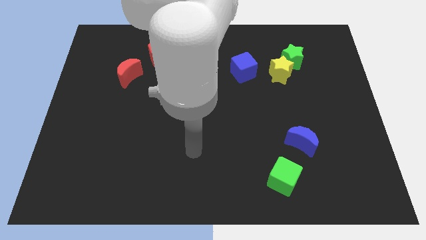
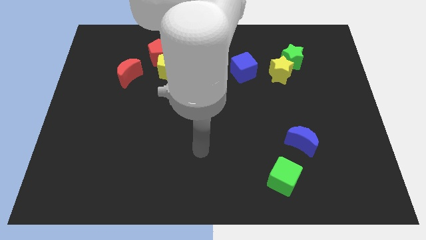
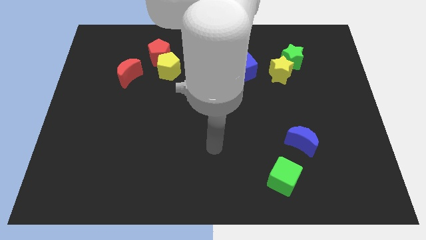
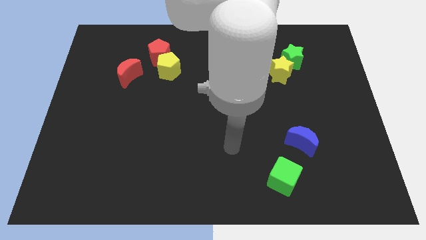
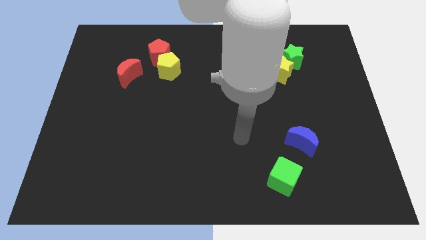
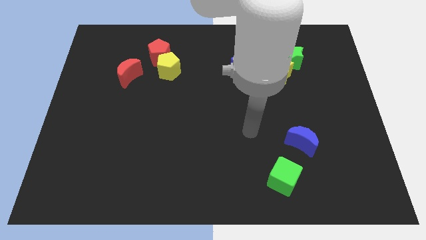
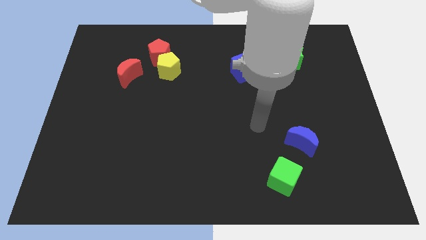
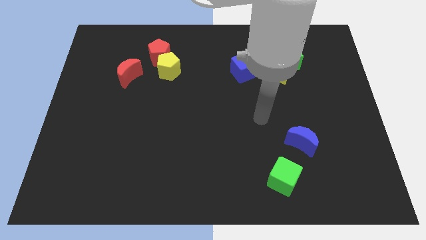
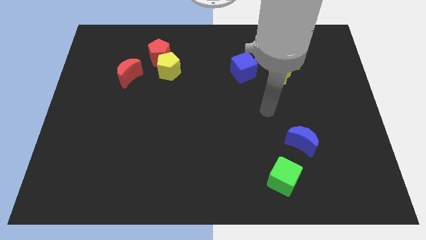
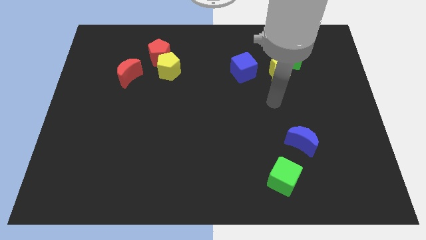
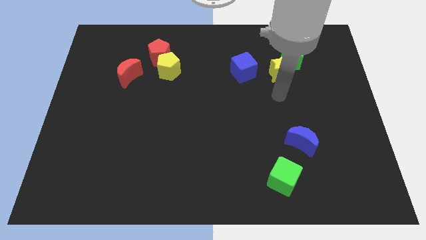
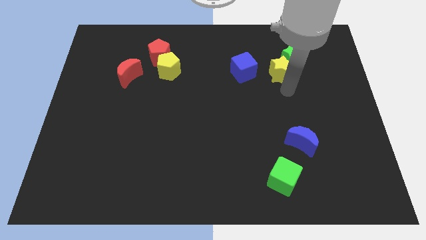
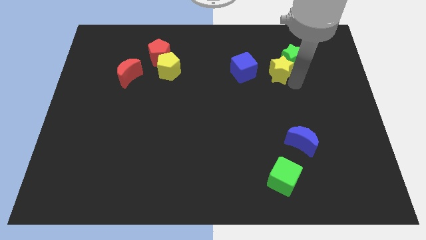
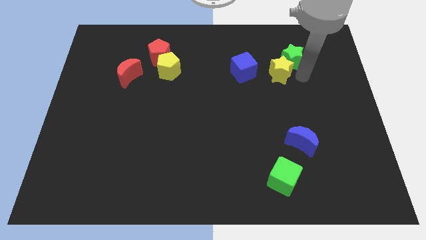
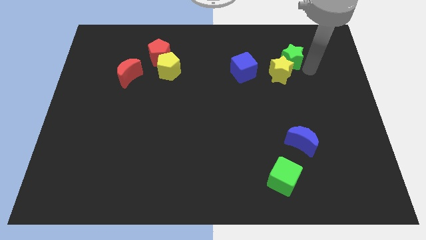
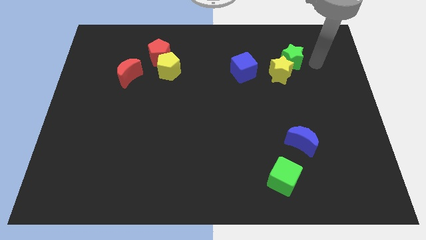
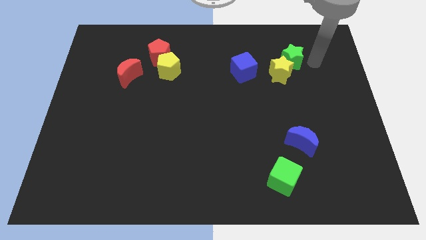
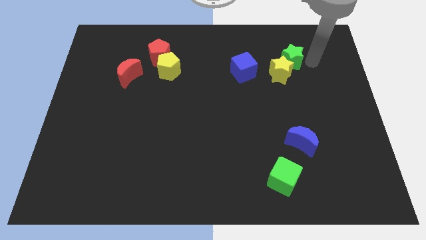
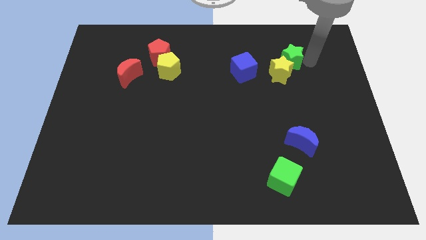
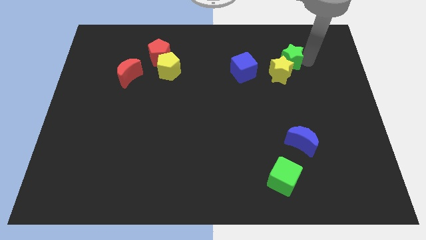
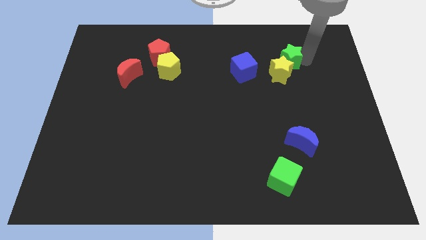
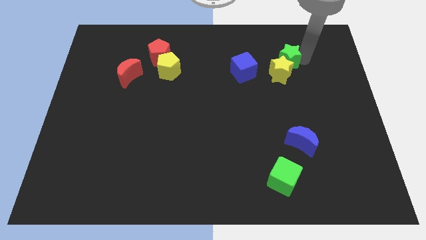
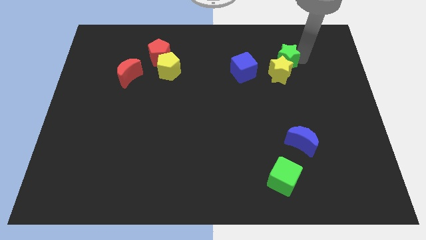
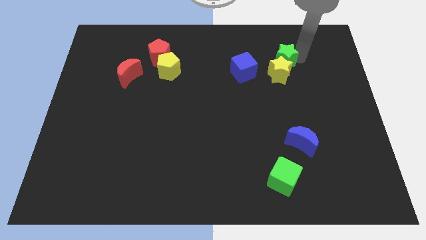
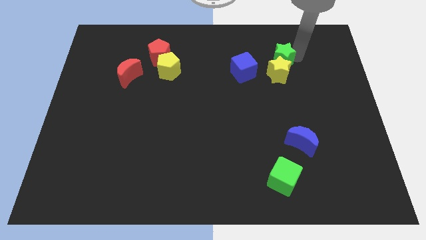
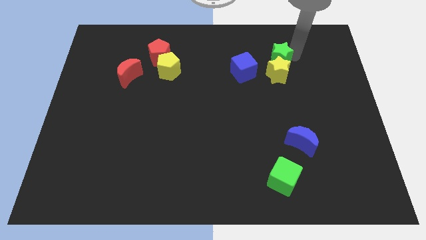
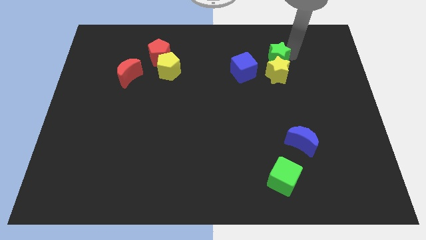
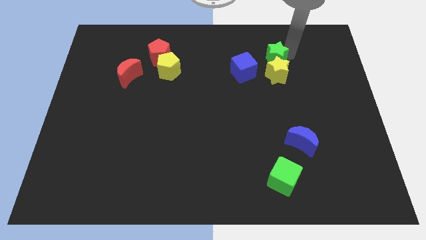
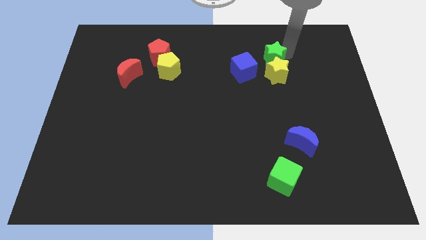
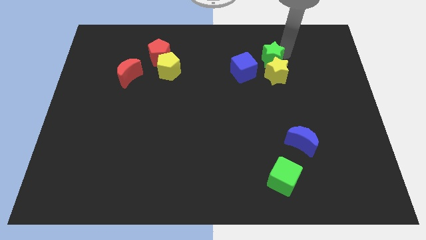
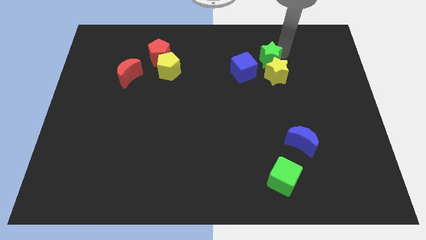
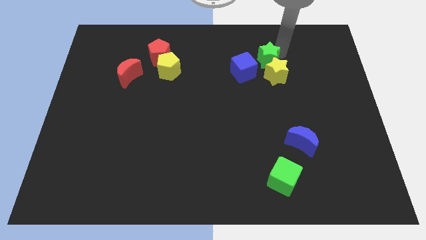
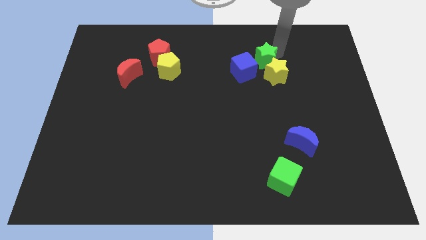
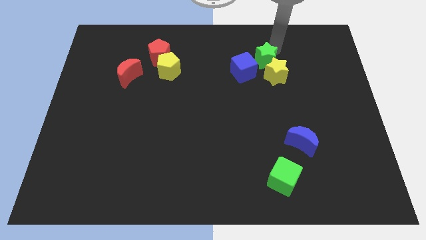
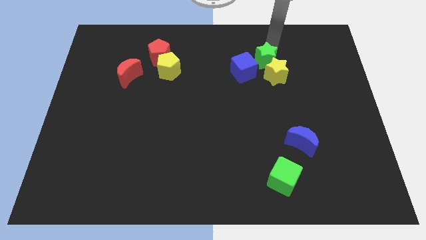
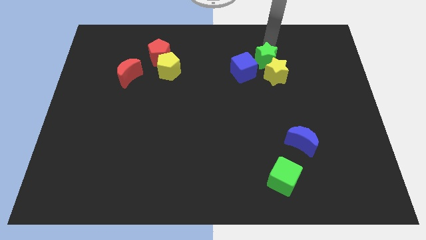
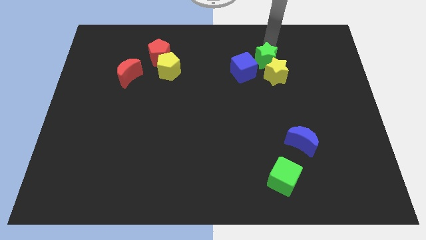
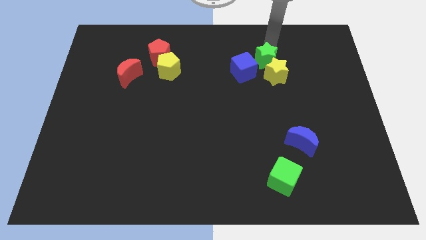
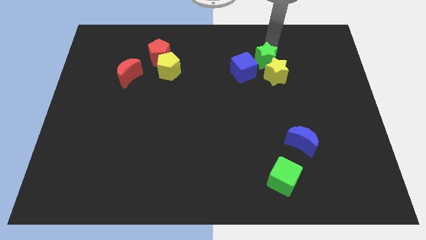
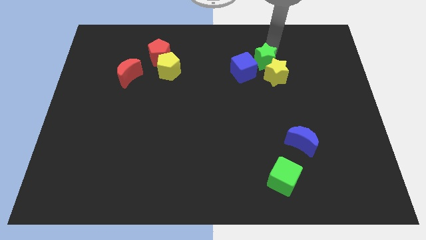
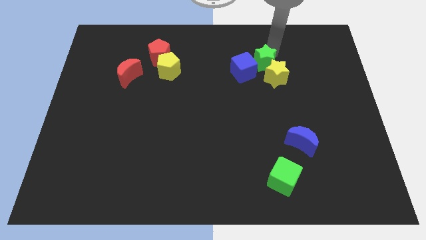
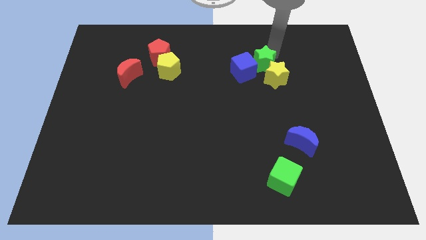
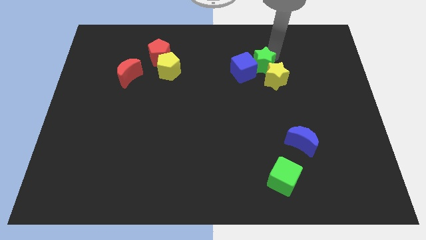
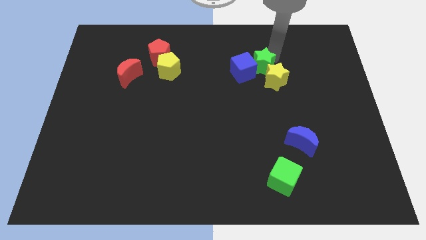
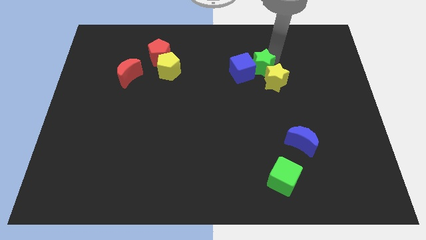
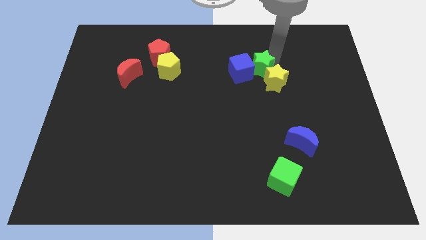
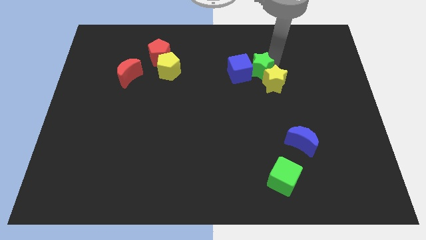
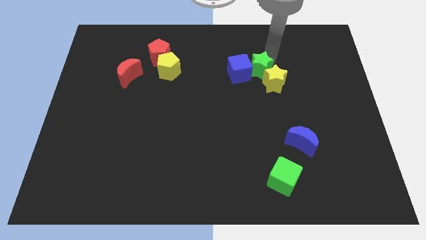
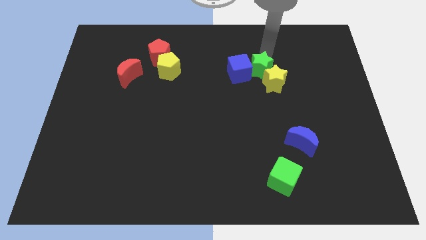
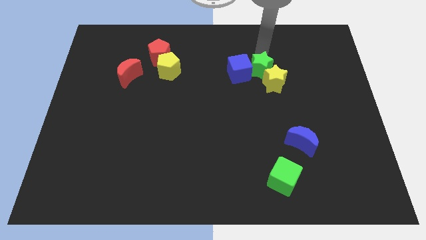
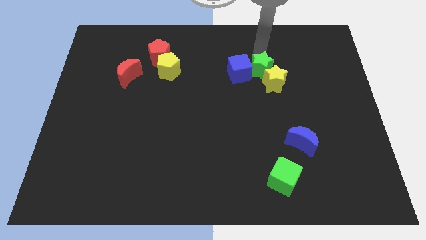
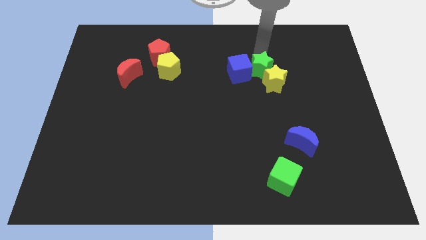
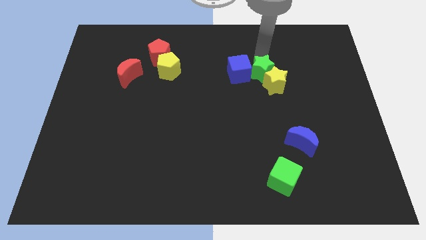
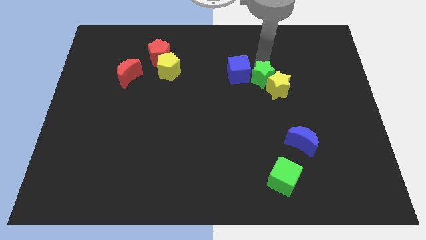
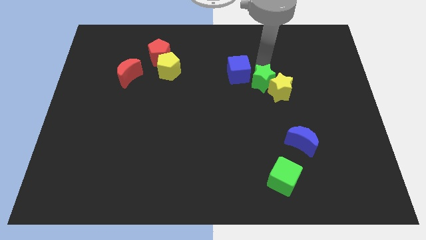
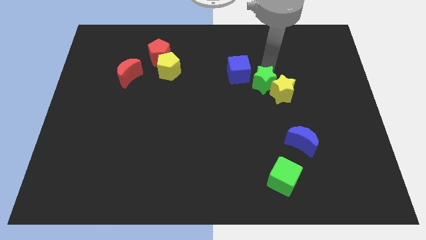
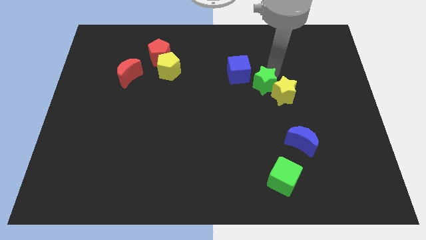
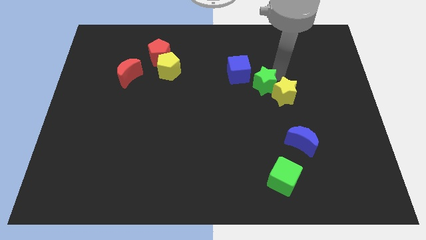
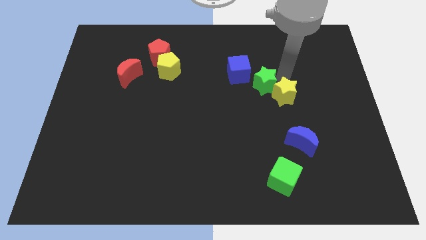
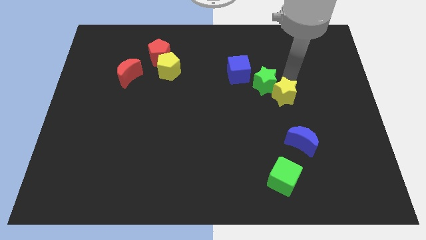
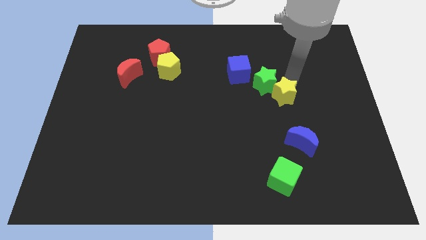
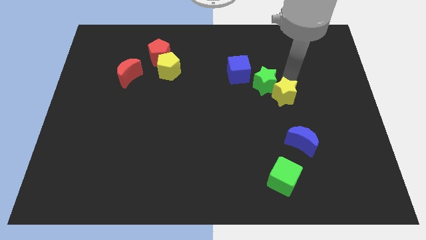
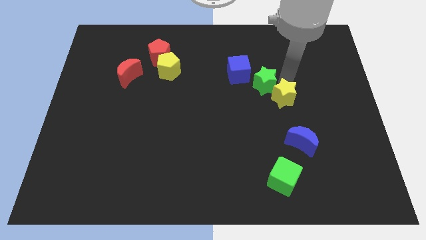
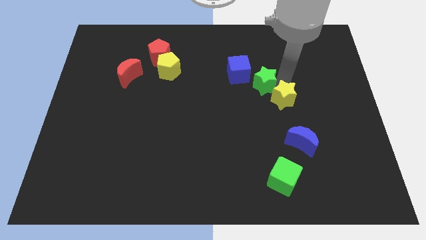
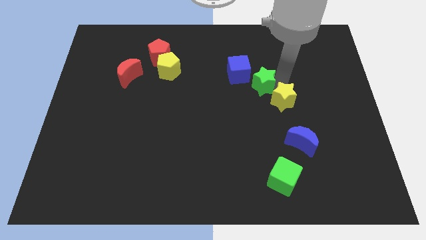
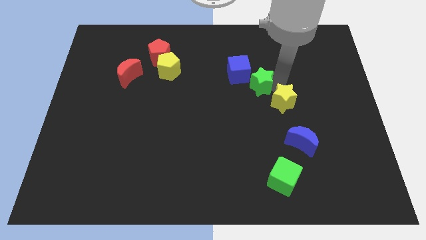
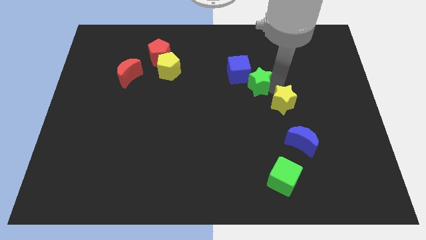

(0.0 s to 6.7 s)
slide the green star to the center of the board
